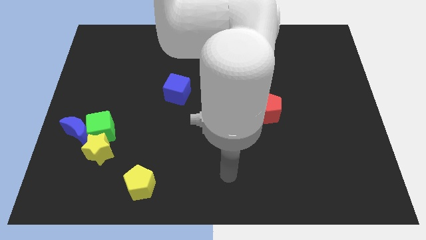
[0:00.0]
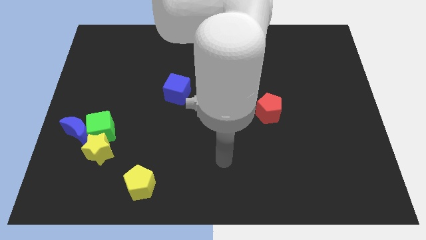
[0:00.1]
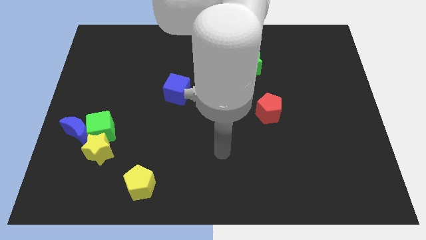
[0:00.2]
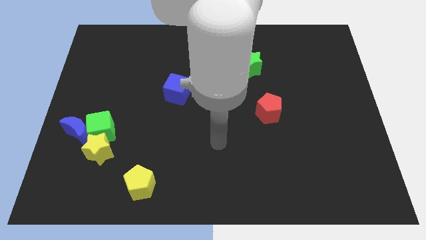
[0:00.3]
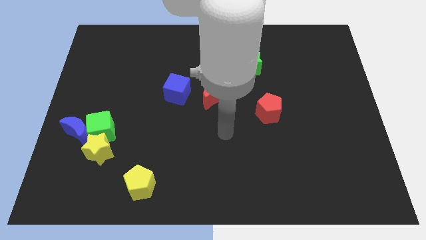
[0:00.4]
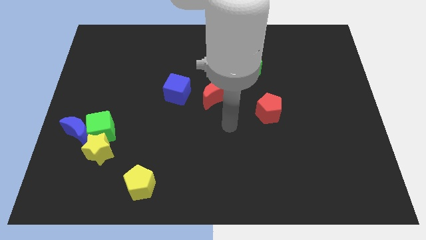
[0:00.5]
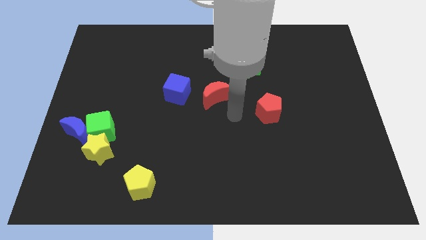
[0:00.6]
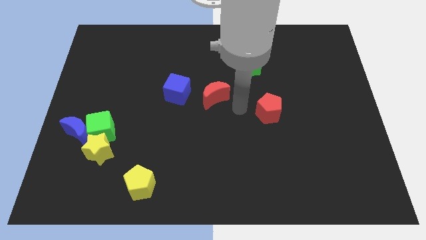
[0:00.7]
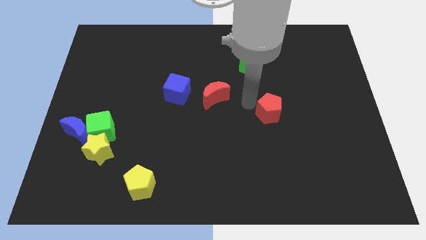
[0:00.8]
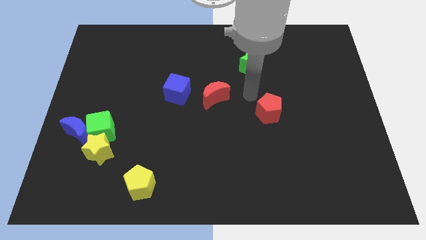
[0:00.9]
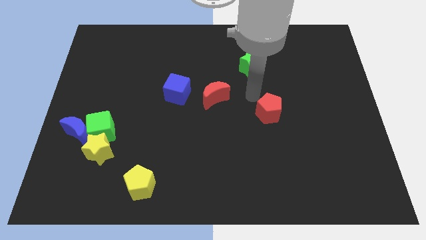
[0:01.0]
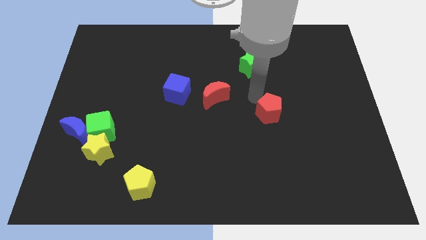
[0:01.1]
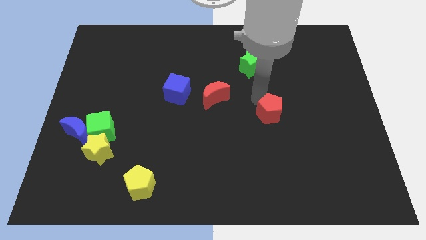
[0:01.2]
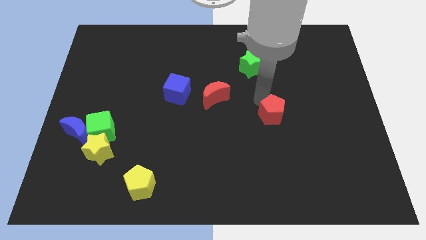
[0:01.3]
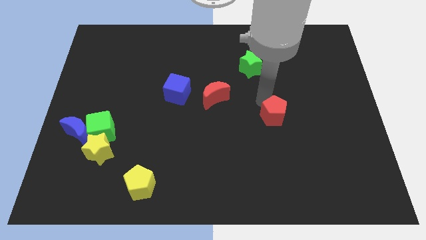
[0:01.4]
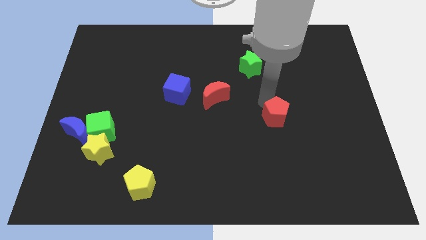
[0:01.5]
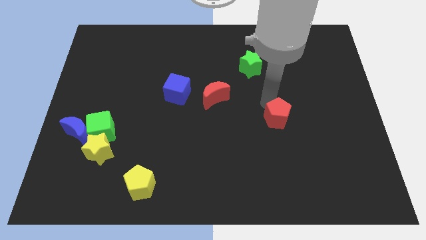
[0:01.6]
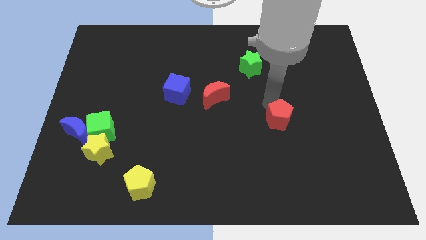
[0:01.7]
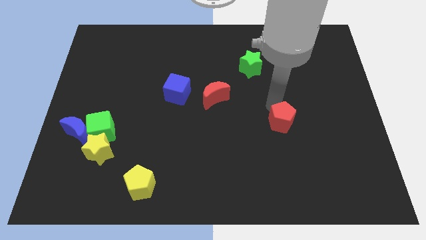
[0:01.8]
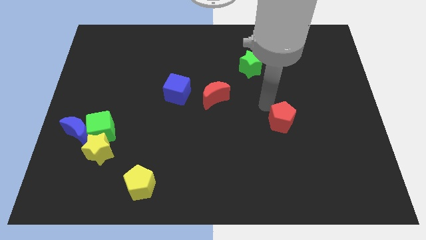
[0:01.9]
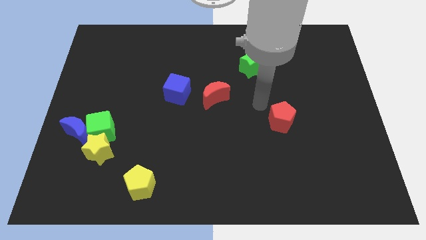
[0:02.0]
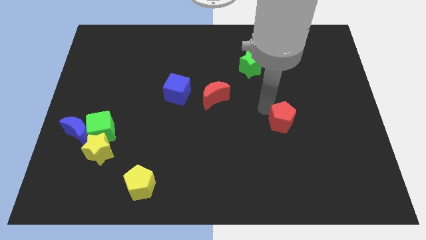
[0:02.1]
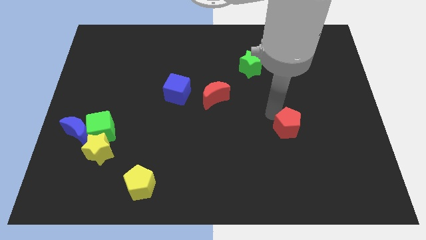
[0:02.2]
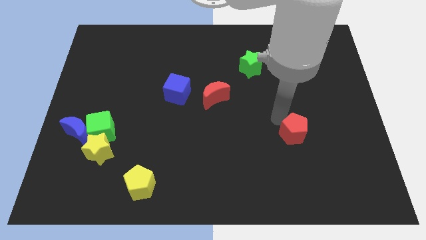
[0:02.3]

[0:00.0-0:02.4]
slightly slide the red pentagon diagonally down and to the right

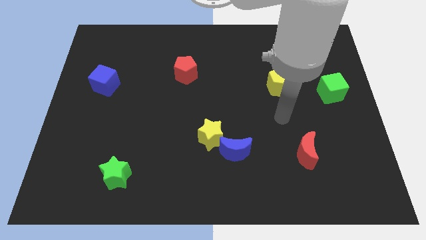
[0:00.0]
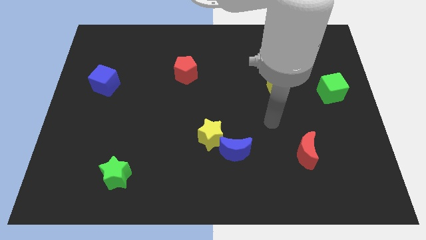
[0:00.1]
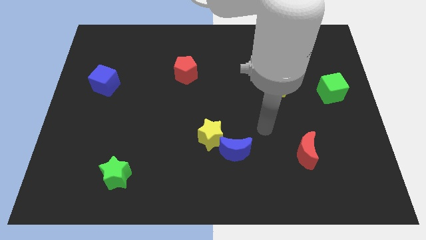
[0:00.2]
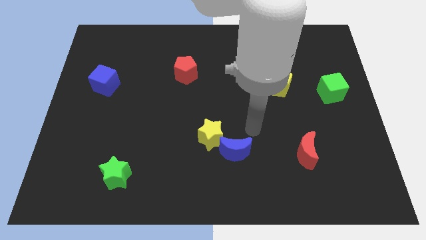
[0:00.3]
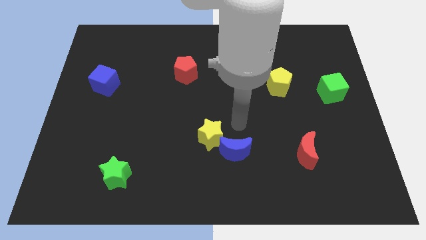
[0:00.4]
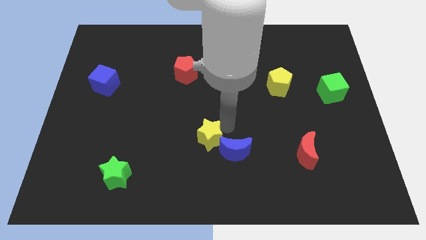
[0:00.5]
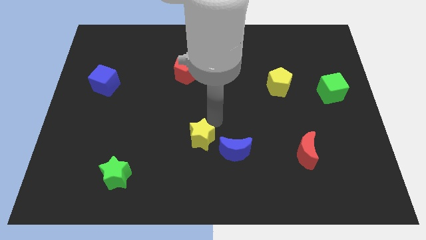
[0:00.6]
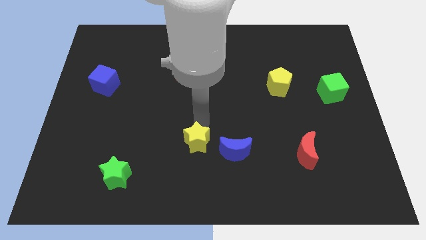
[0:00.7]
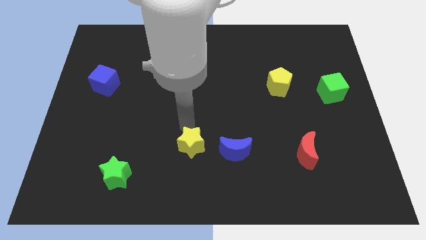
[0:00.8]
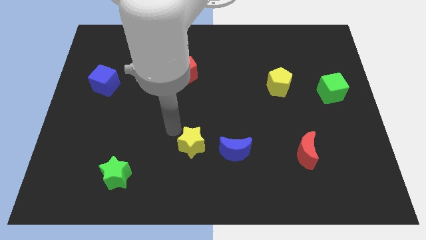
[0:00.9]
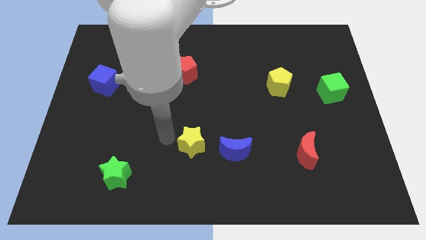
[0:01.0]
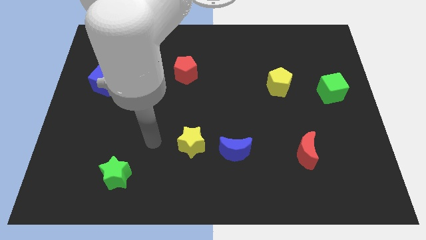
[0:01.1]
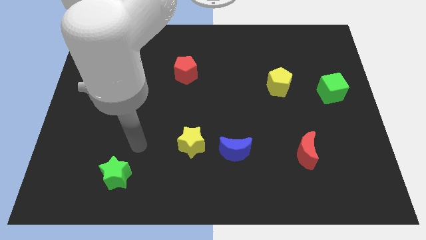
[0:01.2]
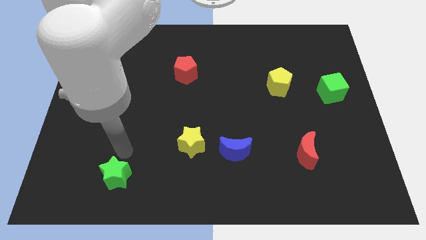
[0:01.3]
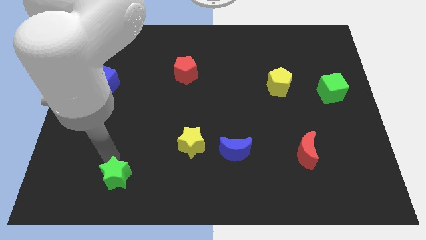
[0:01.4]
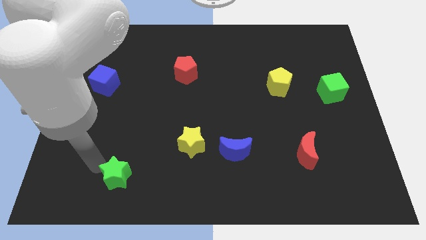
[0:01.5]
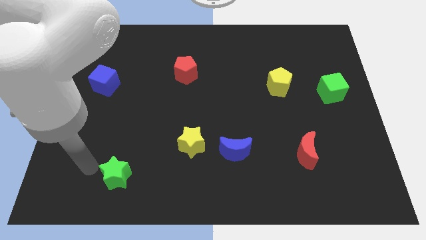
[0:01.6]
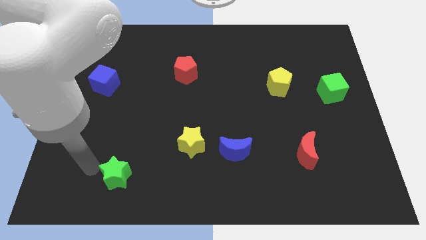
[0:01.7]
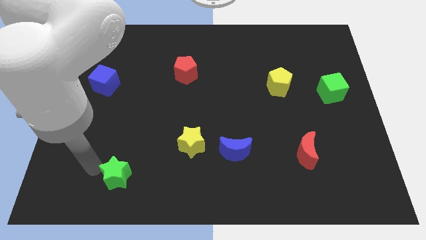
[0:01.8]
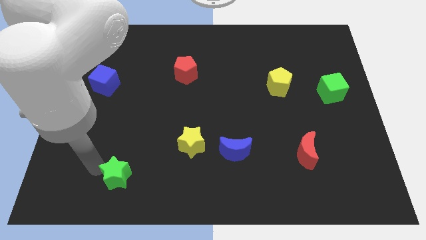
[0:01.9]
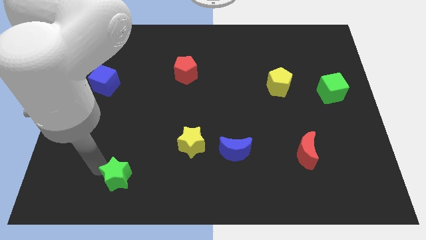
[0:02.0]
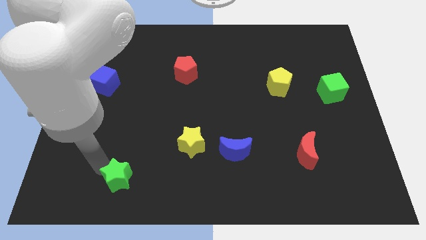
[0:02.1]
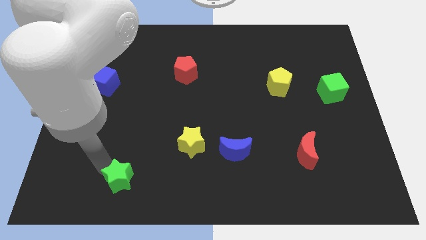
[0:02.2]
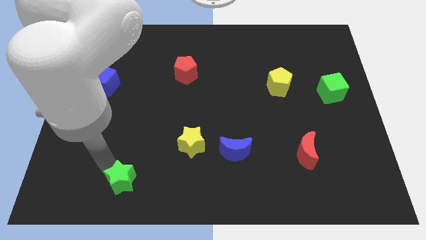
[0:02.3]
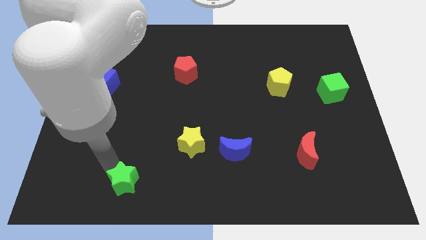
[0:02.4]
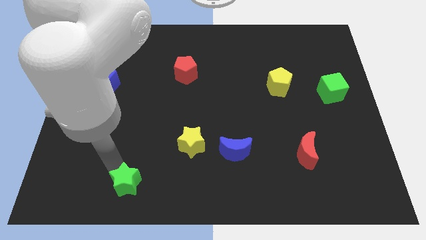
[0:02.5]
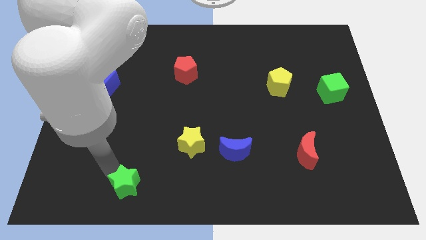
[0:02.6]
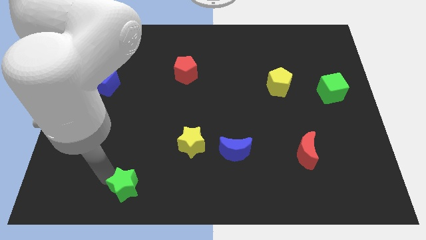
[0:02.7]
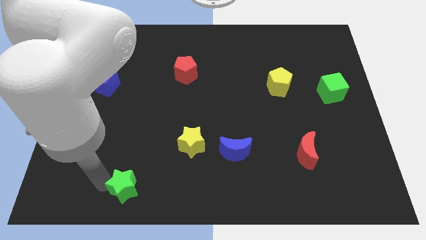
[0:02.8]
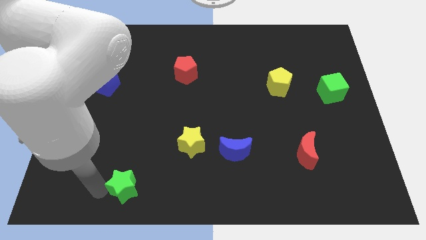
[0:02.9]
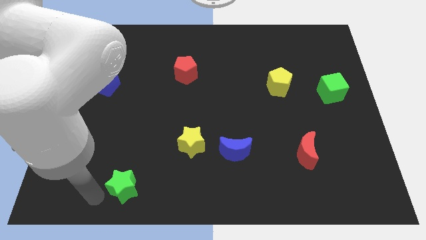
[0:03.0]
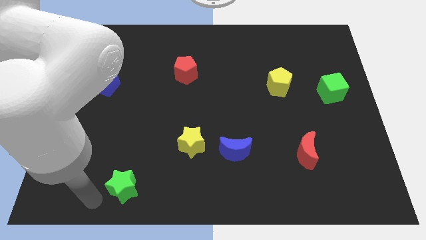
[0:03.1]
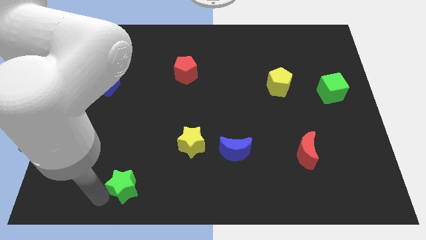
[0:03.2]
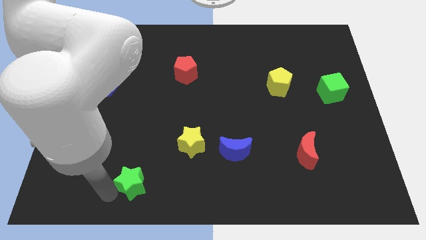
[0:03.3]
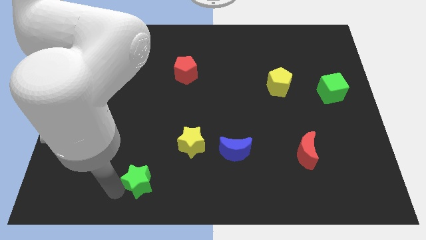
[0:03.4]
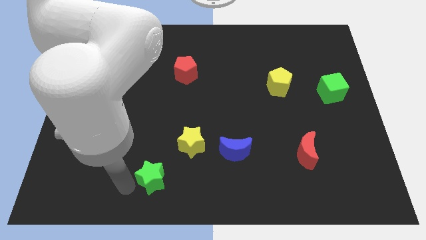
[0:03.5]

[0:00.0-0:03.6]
slightly slide the green star right

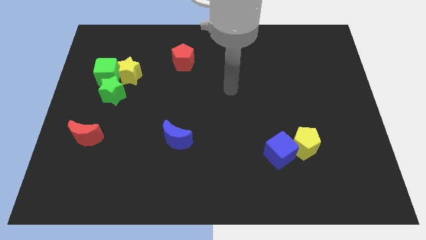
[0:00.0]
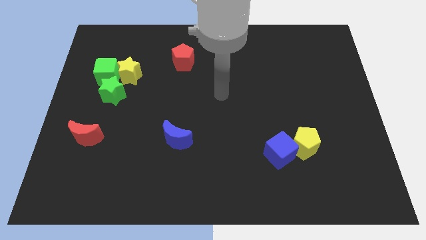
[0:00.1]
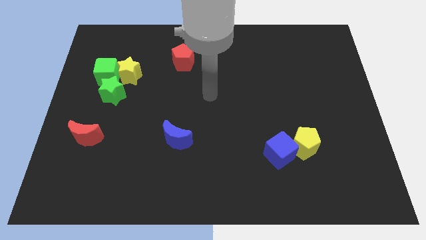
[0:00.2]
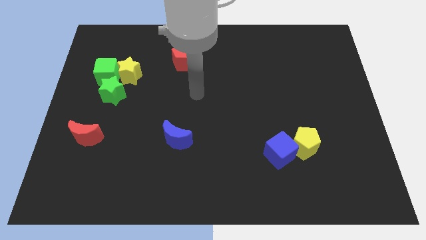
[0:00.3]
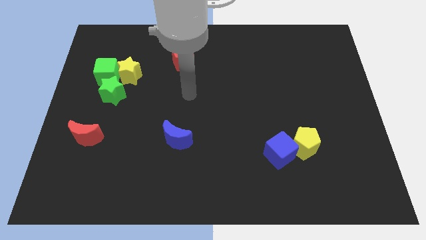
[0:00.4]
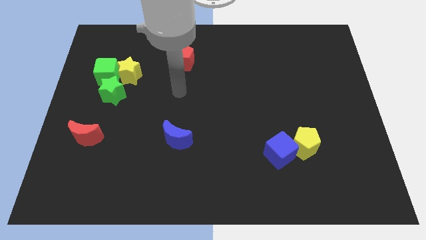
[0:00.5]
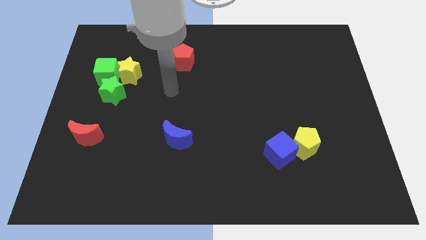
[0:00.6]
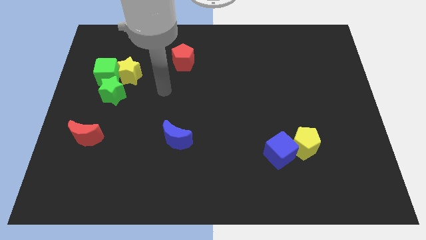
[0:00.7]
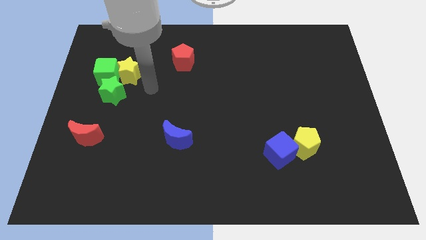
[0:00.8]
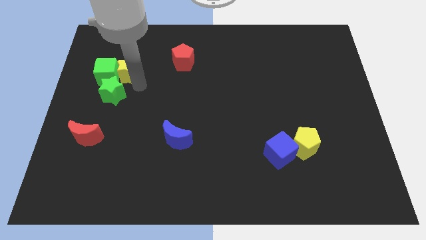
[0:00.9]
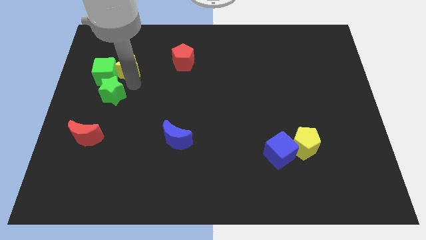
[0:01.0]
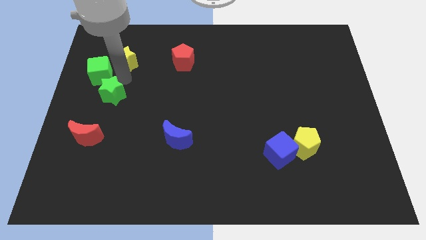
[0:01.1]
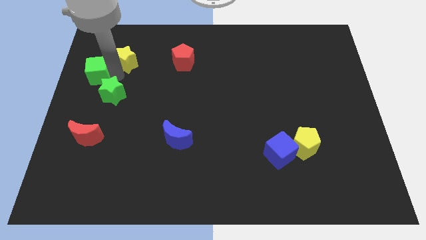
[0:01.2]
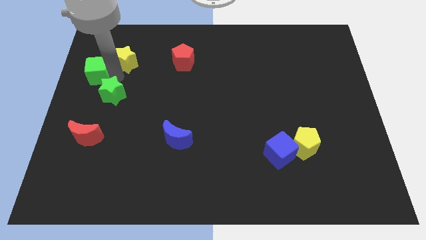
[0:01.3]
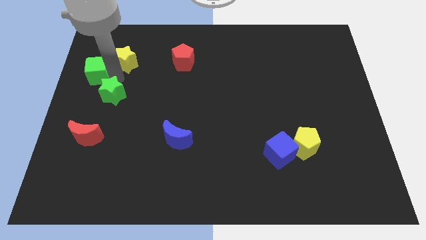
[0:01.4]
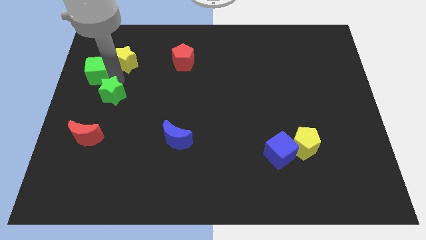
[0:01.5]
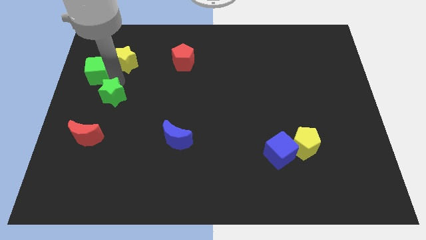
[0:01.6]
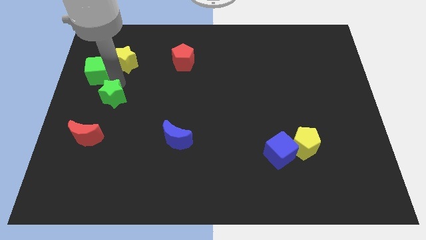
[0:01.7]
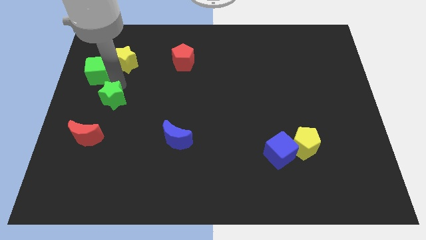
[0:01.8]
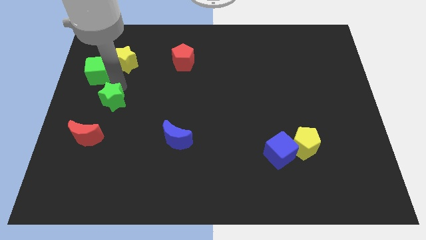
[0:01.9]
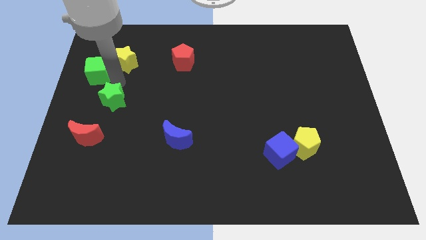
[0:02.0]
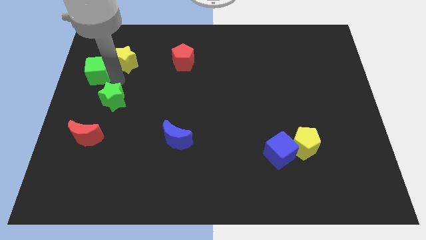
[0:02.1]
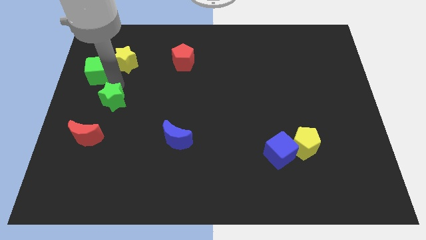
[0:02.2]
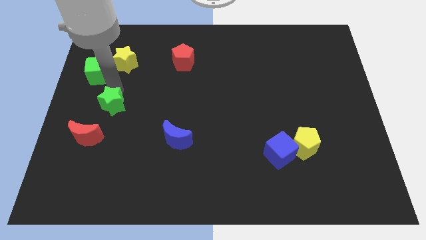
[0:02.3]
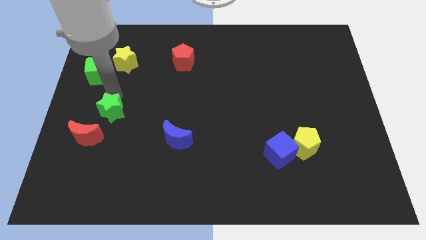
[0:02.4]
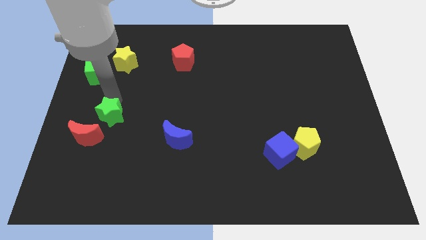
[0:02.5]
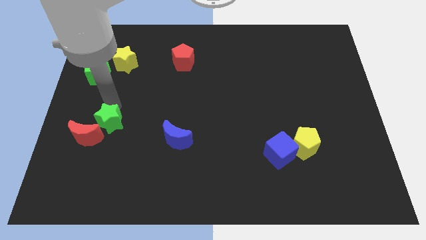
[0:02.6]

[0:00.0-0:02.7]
slide the green star a little downwards
